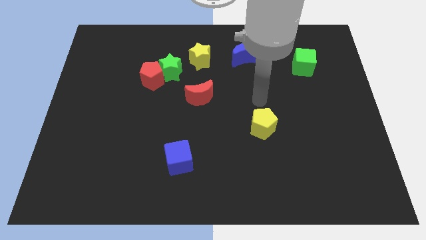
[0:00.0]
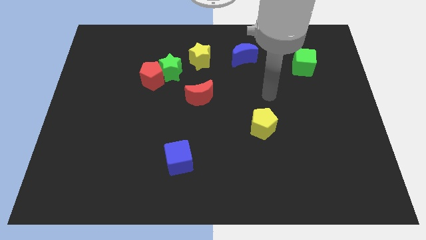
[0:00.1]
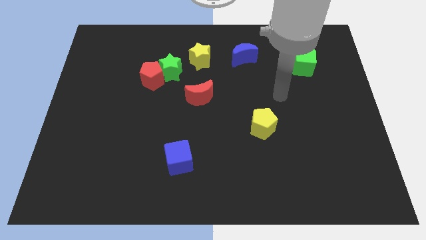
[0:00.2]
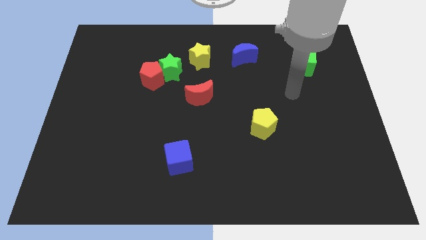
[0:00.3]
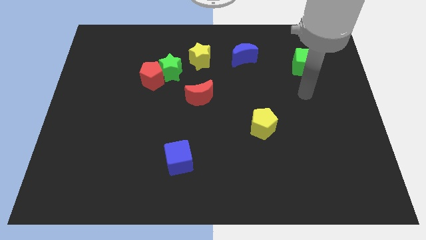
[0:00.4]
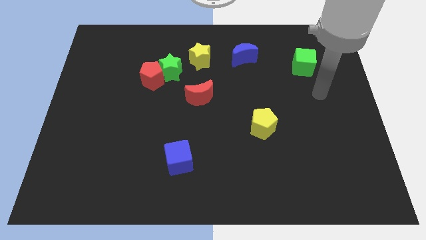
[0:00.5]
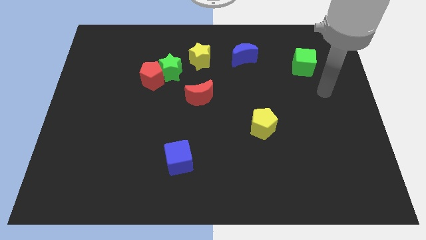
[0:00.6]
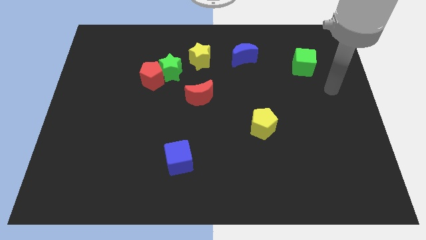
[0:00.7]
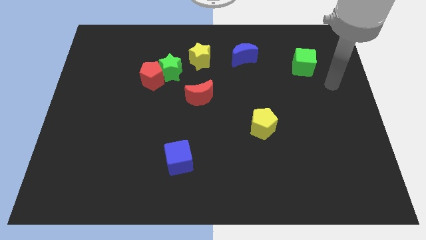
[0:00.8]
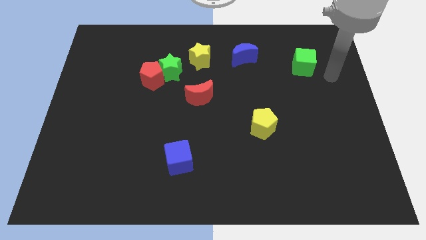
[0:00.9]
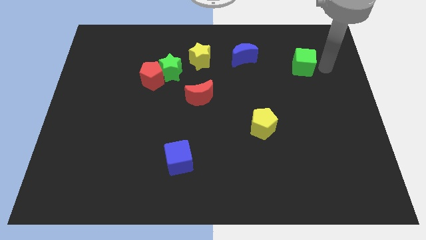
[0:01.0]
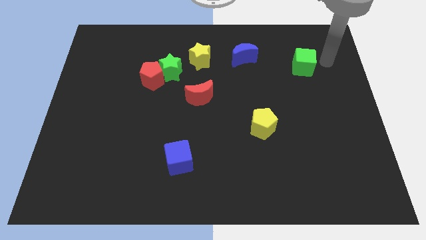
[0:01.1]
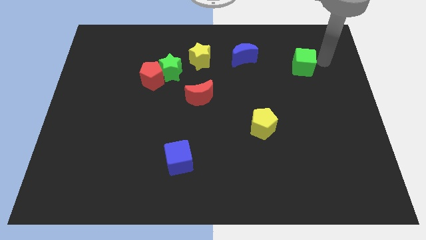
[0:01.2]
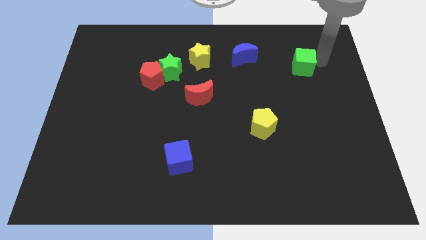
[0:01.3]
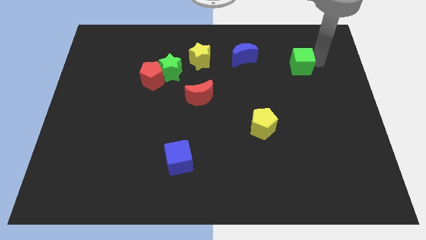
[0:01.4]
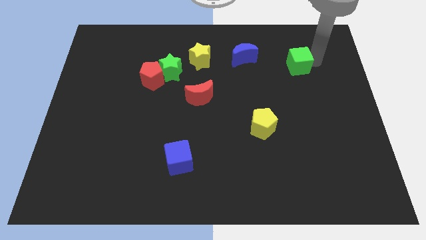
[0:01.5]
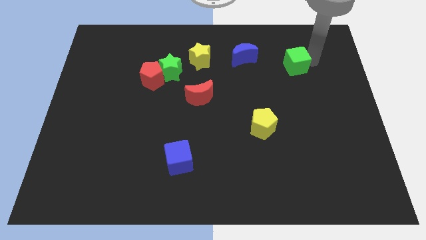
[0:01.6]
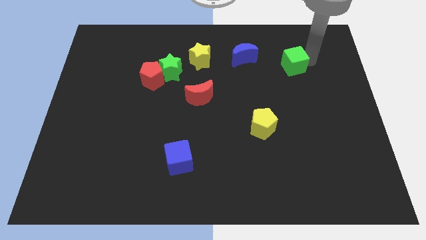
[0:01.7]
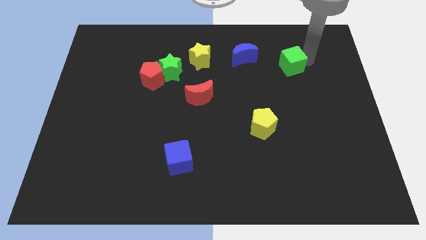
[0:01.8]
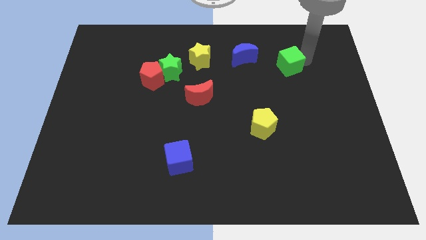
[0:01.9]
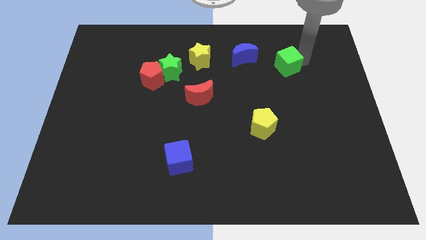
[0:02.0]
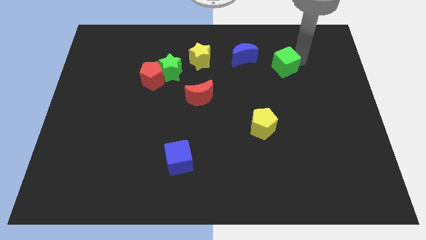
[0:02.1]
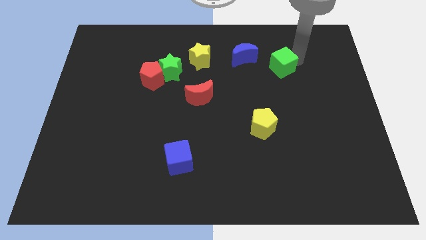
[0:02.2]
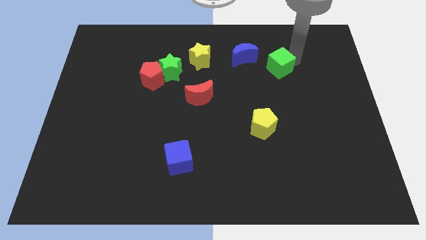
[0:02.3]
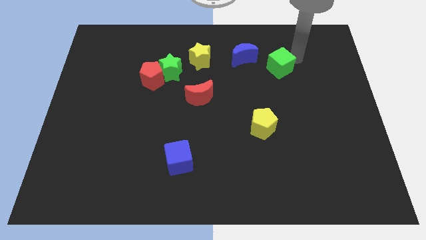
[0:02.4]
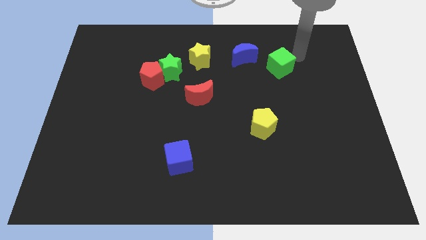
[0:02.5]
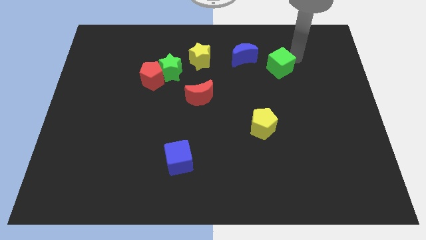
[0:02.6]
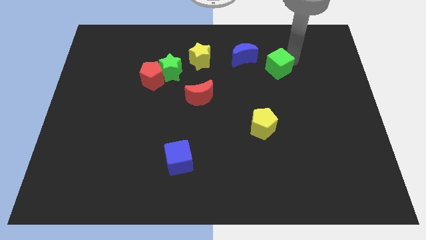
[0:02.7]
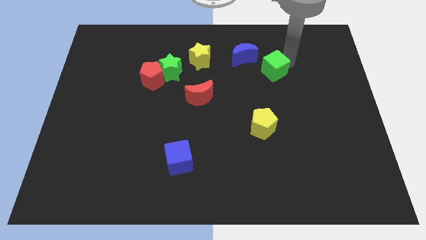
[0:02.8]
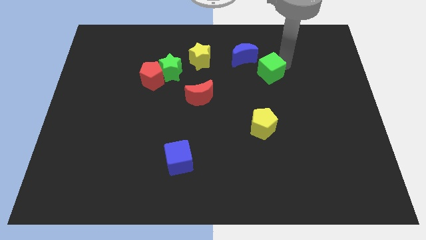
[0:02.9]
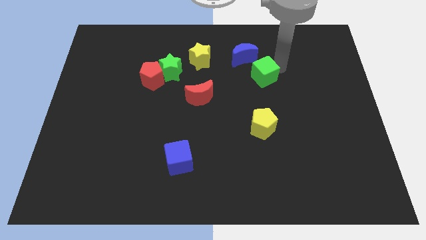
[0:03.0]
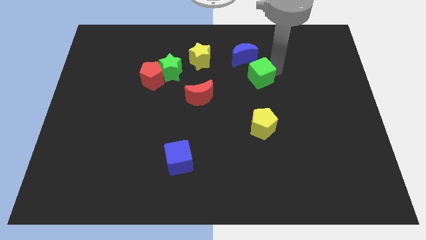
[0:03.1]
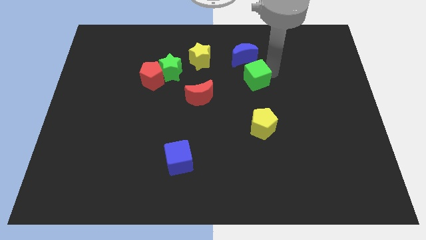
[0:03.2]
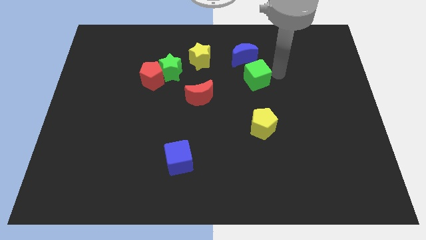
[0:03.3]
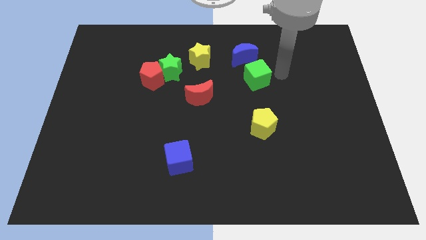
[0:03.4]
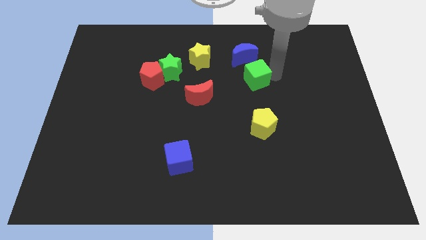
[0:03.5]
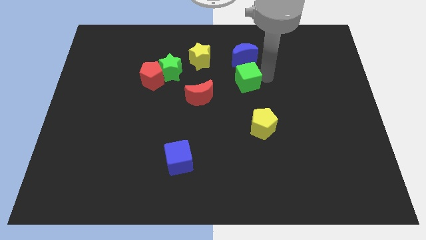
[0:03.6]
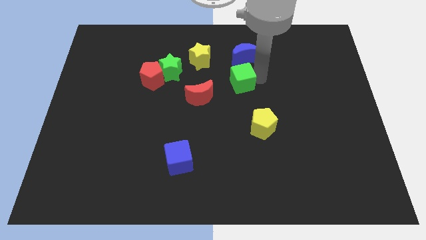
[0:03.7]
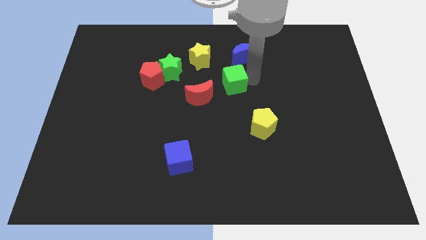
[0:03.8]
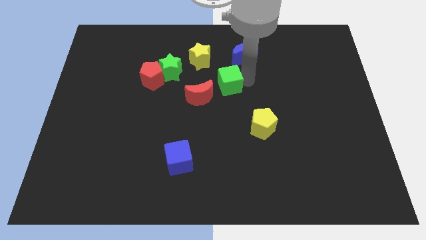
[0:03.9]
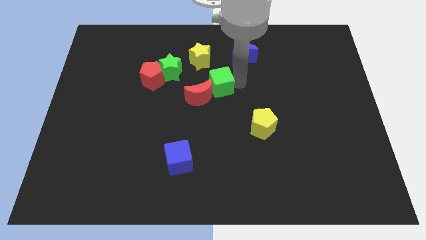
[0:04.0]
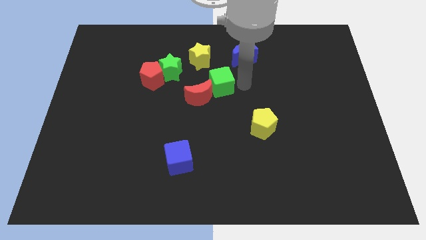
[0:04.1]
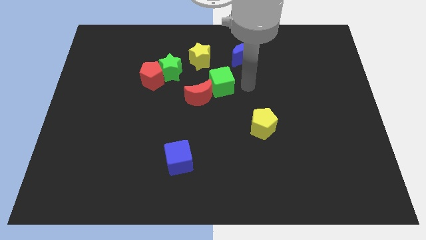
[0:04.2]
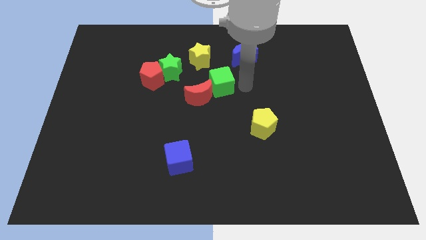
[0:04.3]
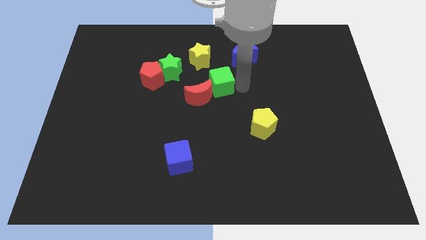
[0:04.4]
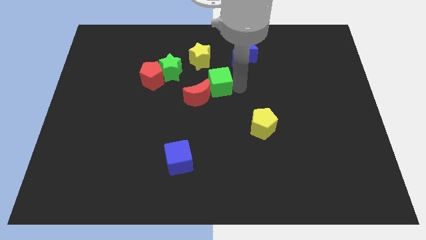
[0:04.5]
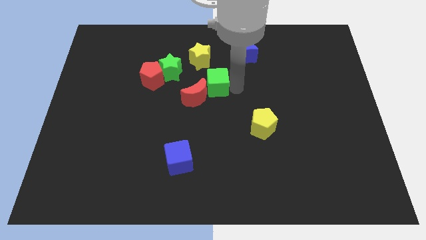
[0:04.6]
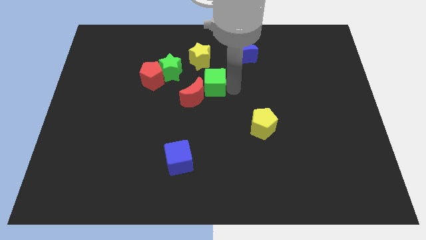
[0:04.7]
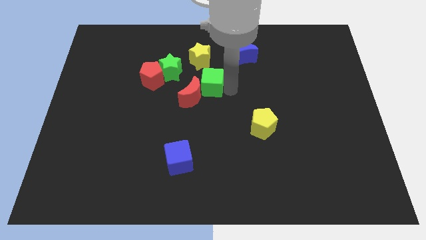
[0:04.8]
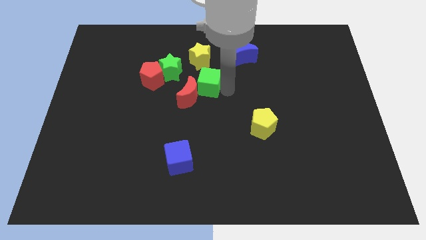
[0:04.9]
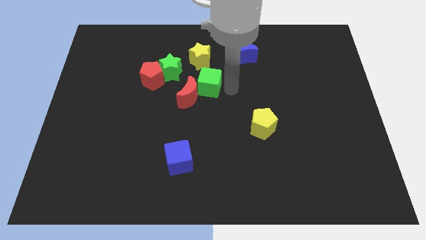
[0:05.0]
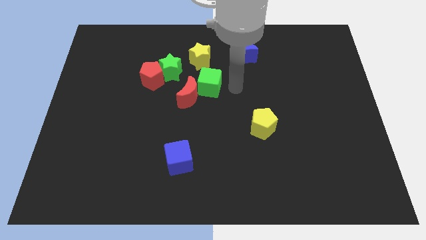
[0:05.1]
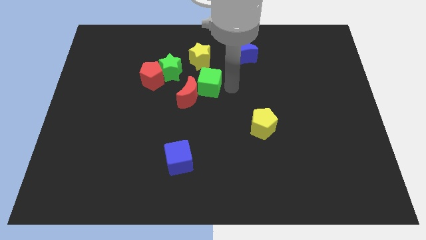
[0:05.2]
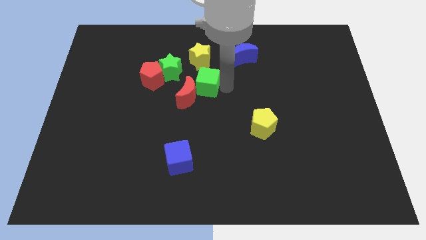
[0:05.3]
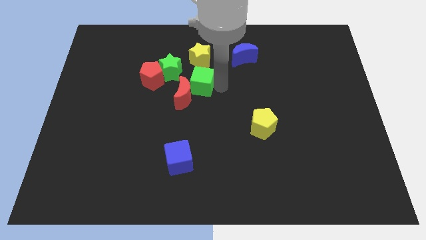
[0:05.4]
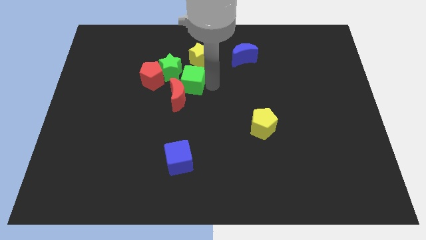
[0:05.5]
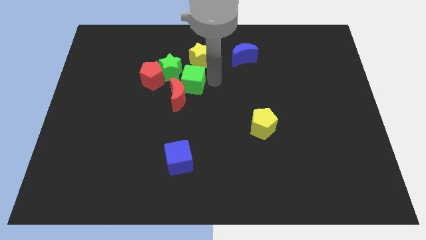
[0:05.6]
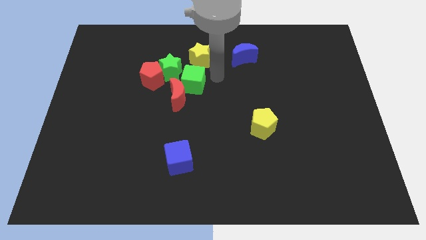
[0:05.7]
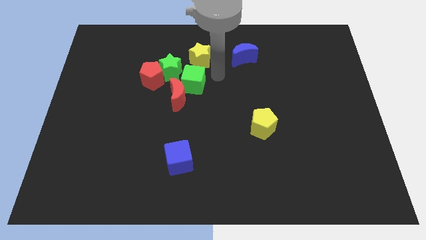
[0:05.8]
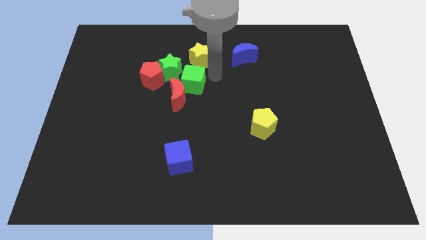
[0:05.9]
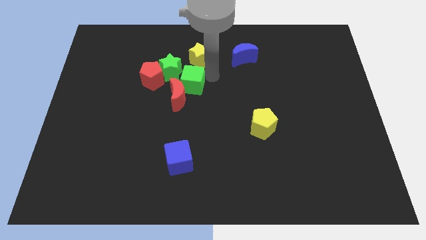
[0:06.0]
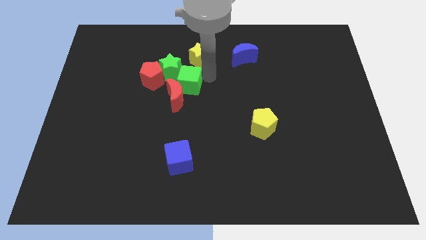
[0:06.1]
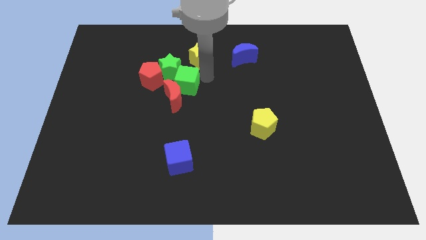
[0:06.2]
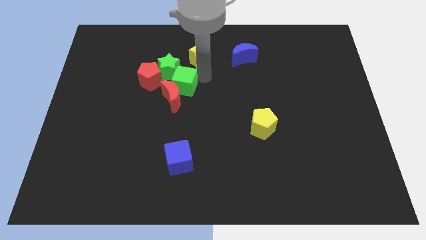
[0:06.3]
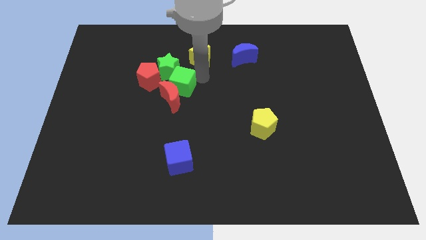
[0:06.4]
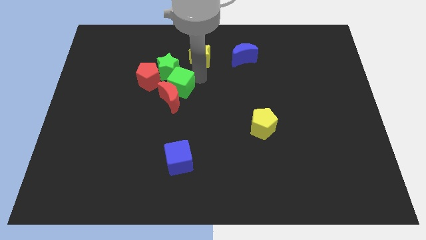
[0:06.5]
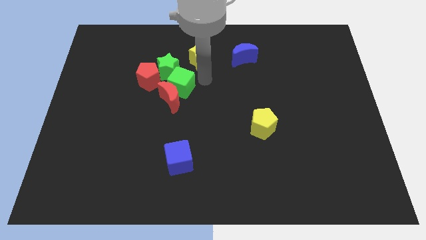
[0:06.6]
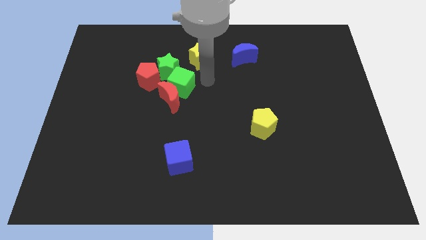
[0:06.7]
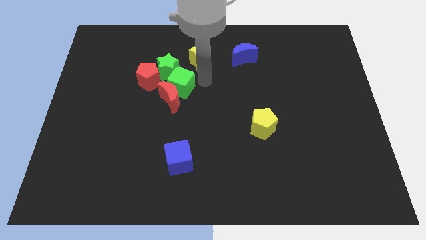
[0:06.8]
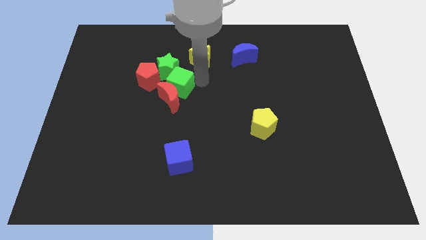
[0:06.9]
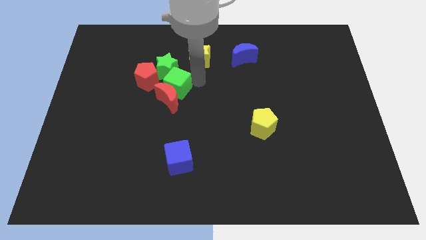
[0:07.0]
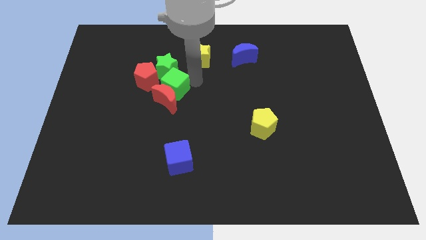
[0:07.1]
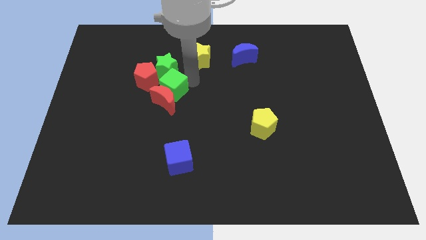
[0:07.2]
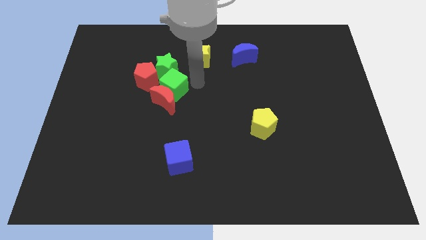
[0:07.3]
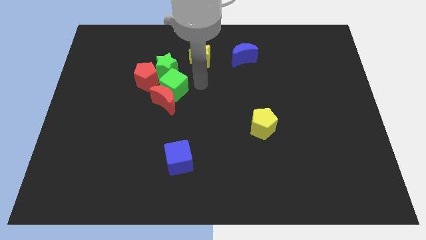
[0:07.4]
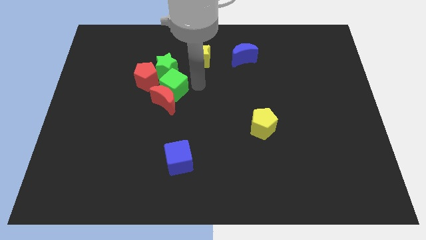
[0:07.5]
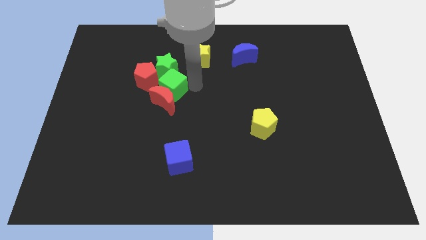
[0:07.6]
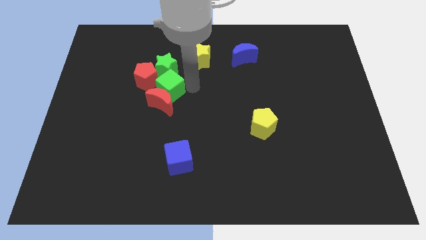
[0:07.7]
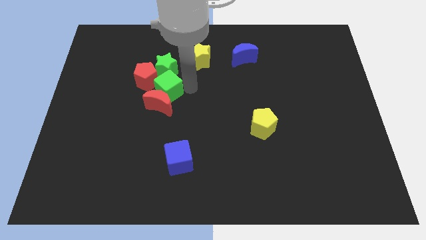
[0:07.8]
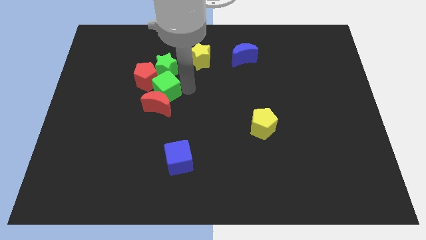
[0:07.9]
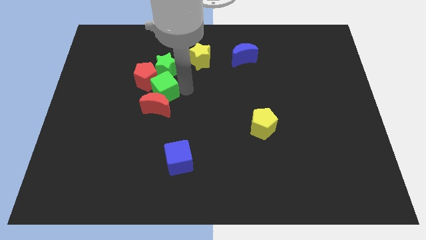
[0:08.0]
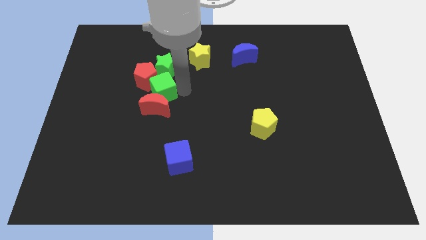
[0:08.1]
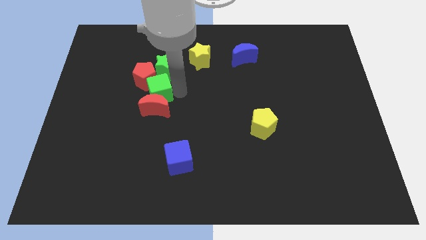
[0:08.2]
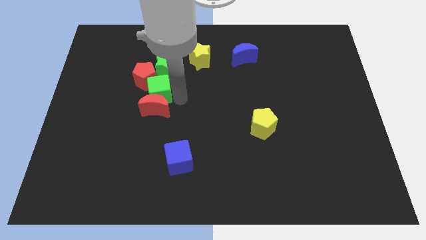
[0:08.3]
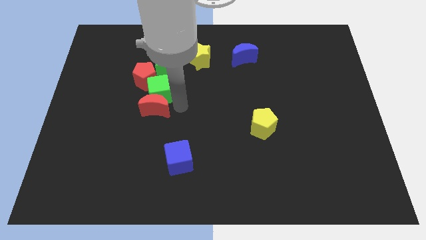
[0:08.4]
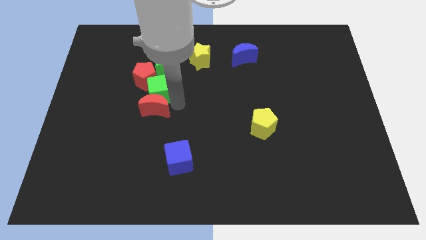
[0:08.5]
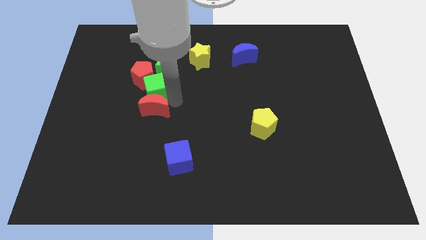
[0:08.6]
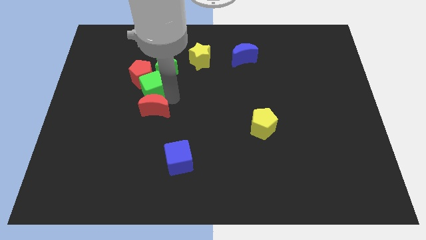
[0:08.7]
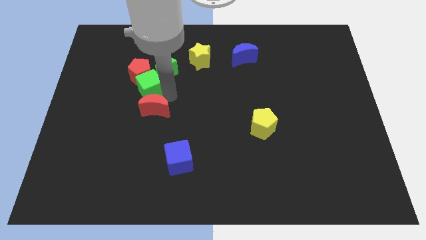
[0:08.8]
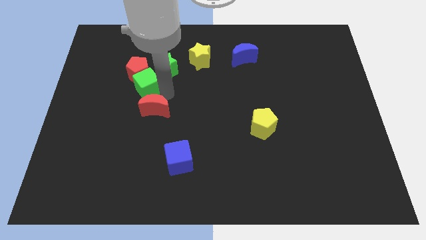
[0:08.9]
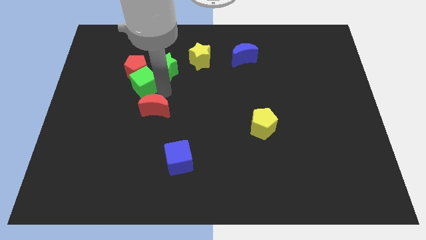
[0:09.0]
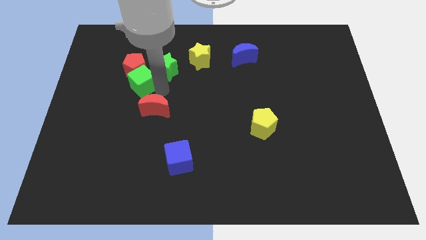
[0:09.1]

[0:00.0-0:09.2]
move the green cube left of the green star
